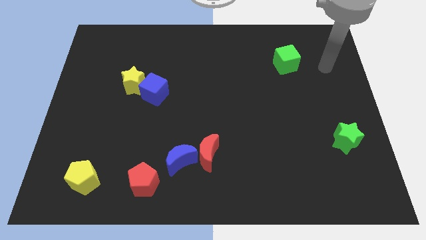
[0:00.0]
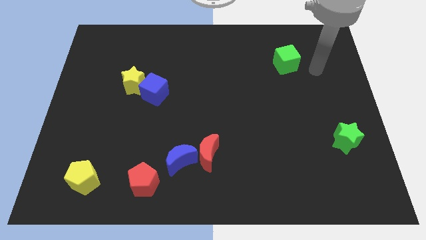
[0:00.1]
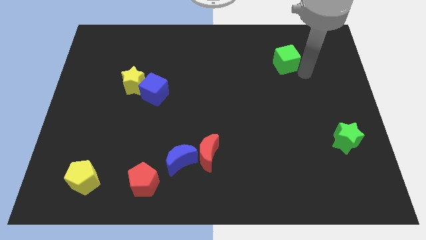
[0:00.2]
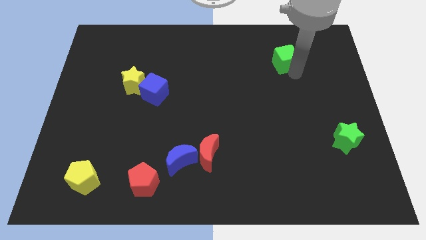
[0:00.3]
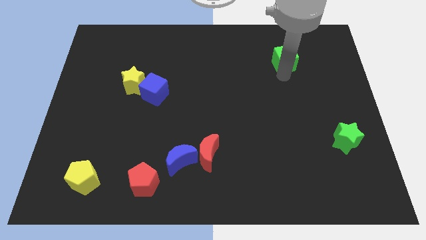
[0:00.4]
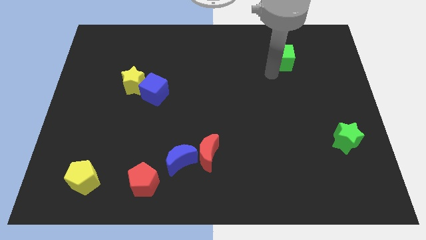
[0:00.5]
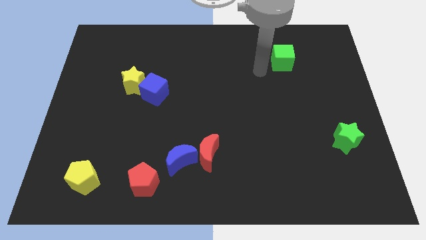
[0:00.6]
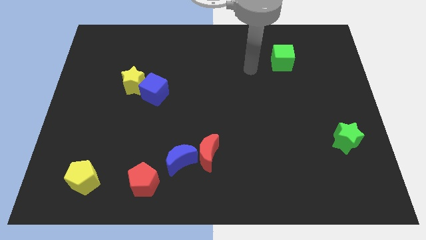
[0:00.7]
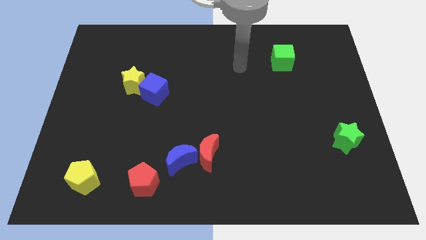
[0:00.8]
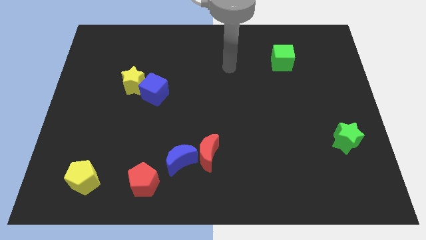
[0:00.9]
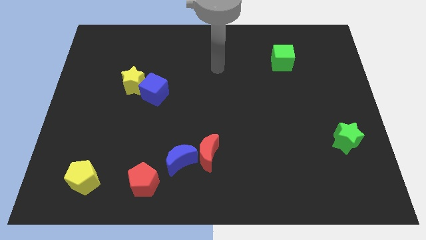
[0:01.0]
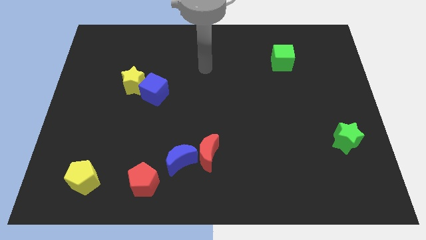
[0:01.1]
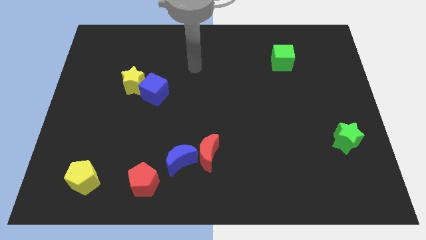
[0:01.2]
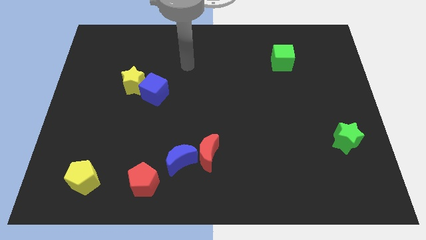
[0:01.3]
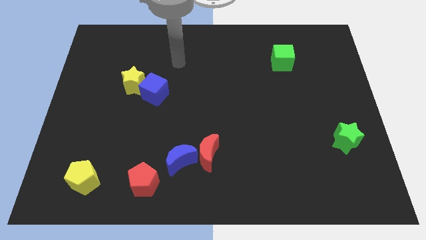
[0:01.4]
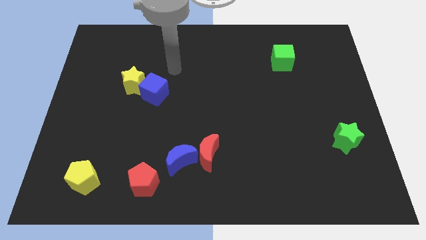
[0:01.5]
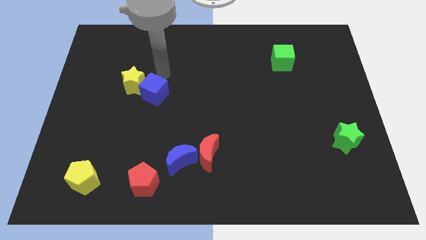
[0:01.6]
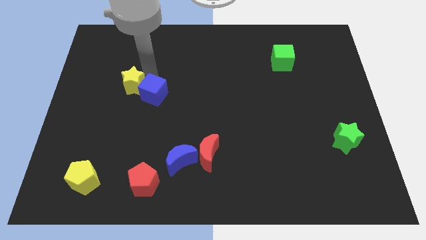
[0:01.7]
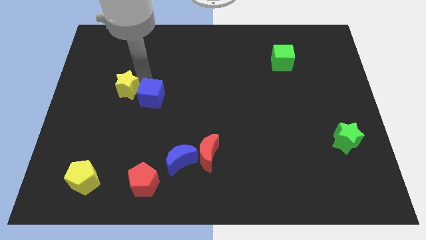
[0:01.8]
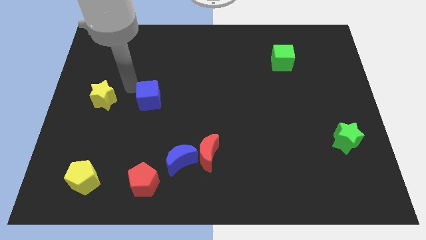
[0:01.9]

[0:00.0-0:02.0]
move the blue cube away from the yellow star

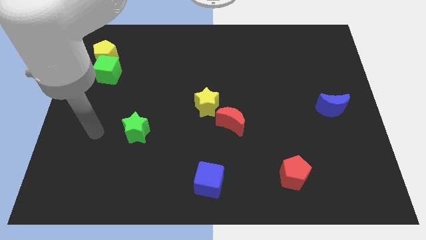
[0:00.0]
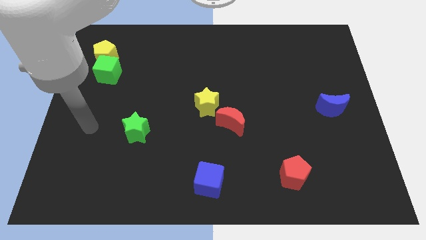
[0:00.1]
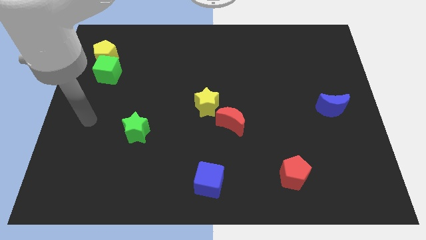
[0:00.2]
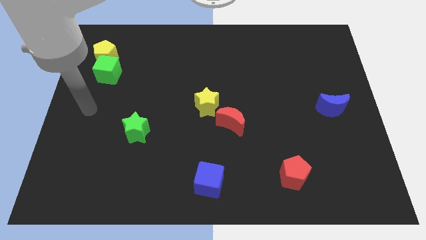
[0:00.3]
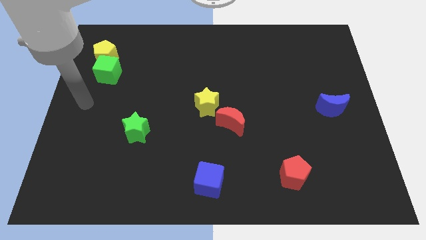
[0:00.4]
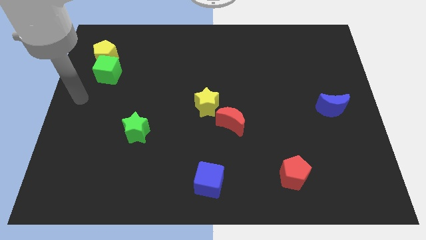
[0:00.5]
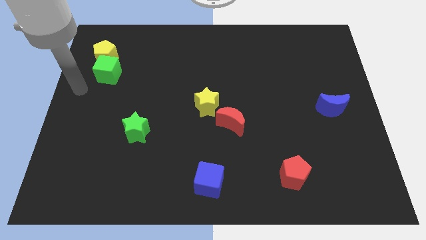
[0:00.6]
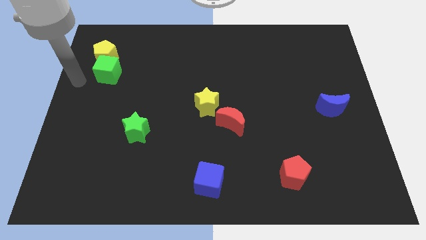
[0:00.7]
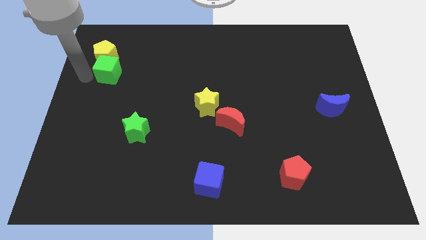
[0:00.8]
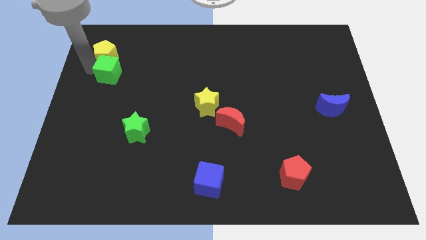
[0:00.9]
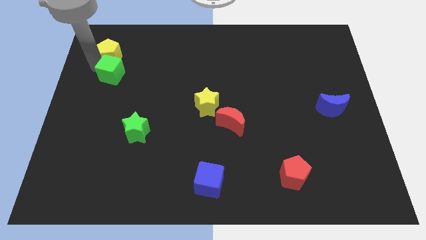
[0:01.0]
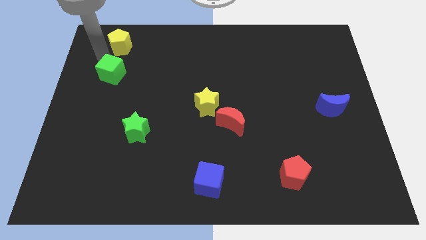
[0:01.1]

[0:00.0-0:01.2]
pull the green cube apart from the yellow pentagon

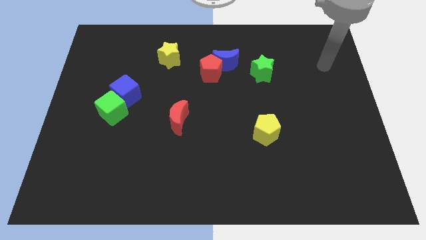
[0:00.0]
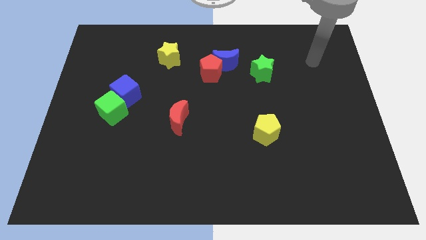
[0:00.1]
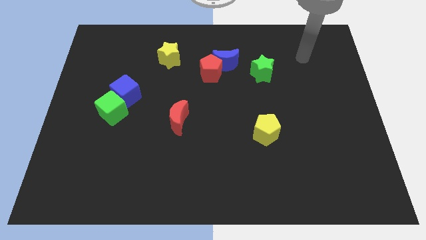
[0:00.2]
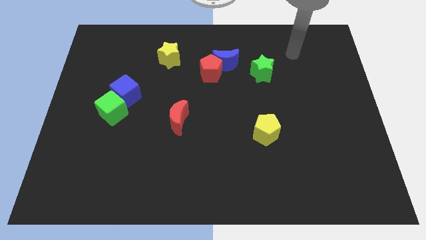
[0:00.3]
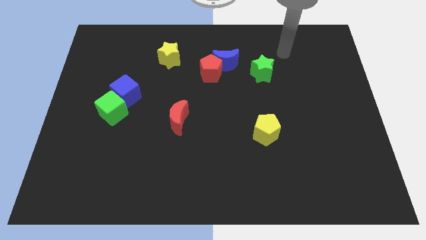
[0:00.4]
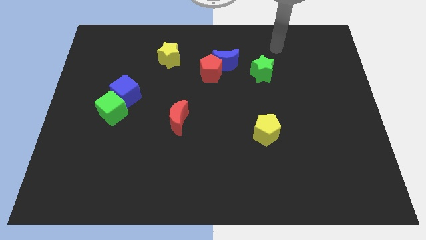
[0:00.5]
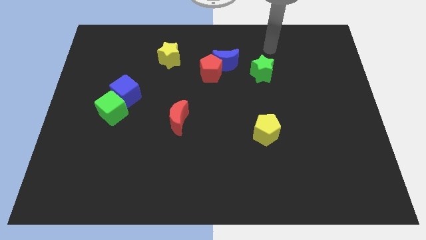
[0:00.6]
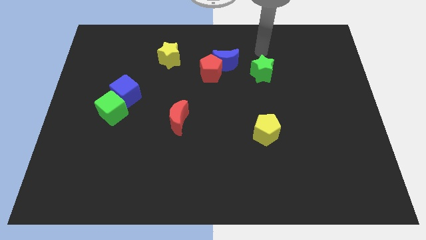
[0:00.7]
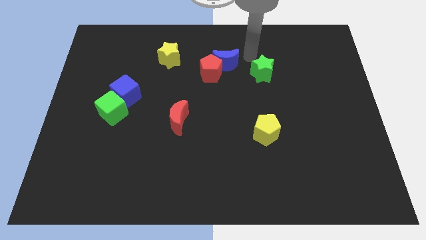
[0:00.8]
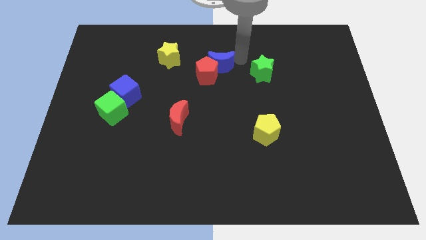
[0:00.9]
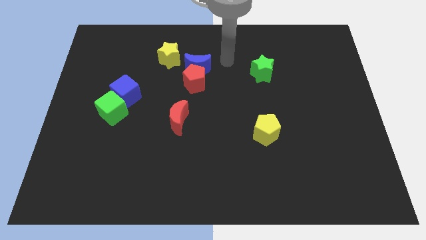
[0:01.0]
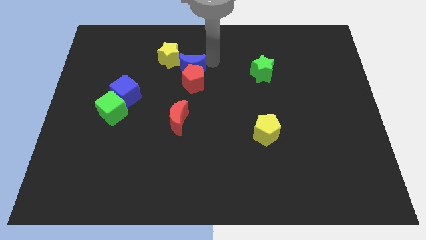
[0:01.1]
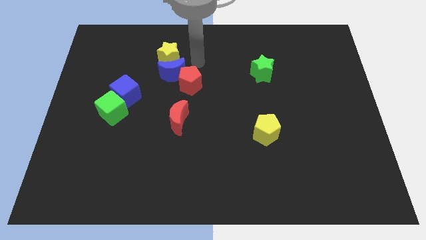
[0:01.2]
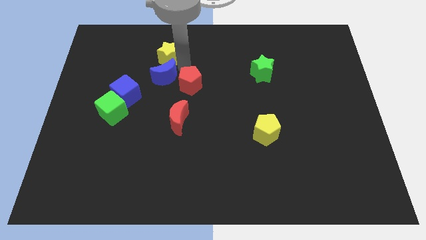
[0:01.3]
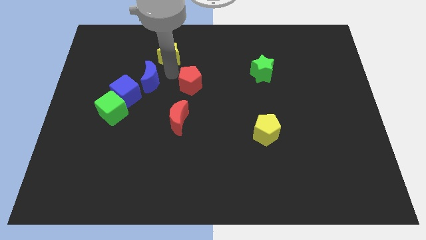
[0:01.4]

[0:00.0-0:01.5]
move the red pentagon away from the blue moon

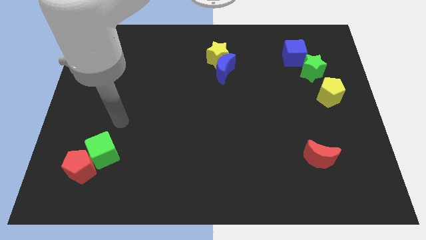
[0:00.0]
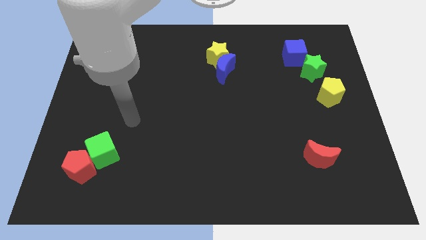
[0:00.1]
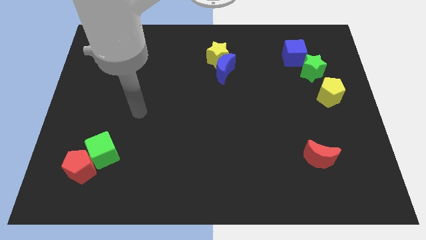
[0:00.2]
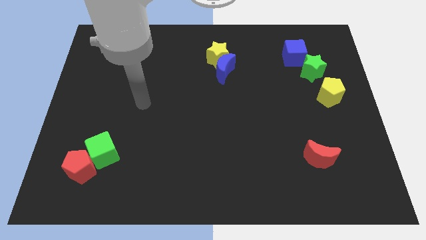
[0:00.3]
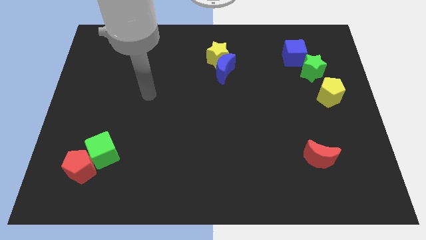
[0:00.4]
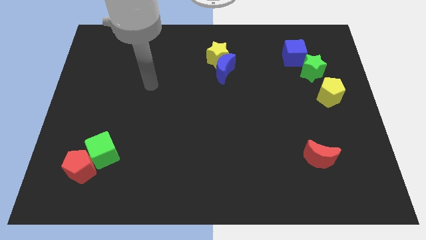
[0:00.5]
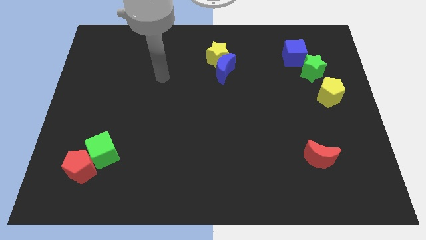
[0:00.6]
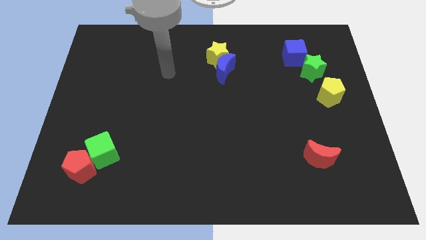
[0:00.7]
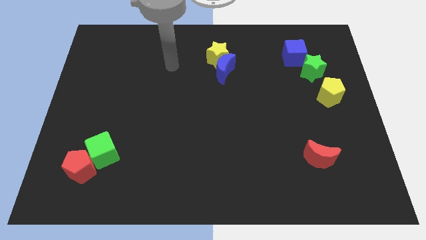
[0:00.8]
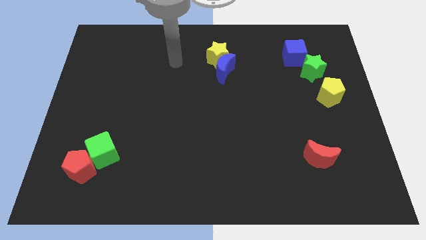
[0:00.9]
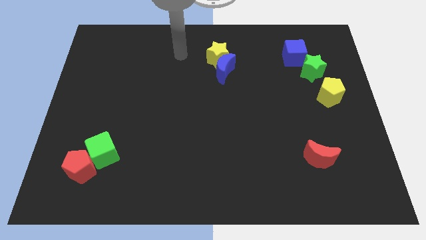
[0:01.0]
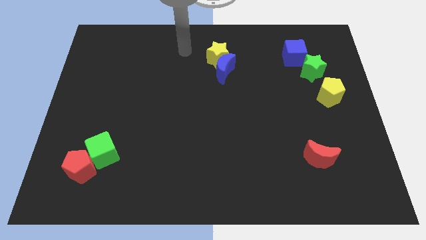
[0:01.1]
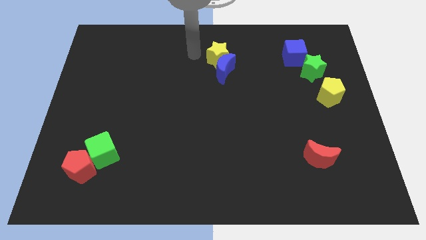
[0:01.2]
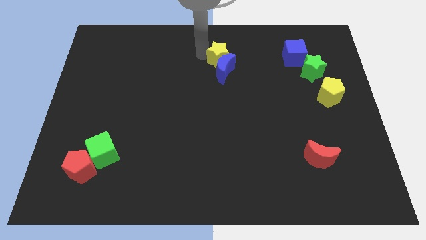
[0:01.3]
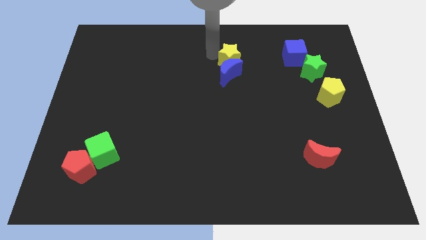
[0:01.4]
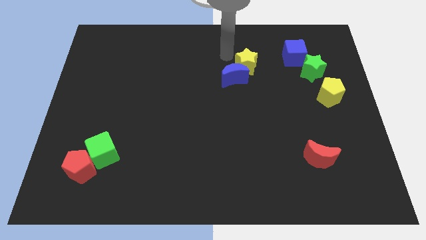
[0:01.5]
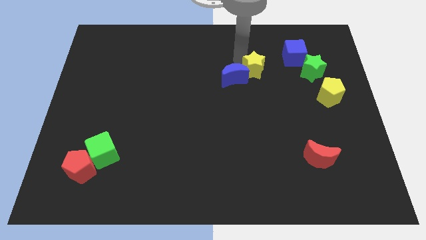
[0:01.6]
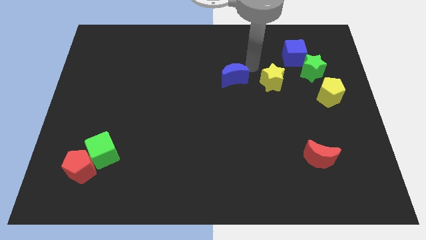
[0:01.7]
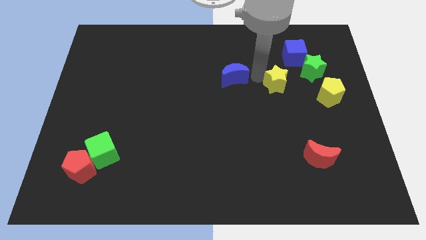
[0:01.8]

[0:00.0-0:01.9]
separate the blue moon from the yellow star

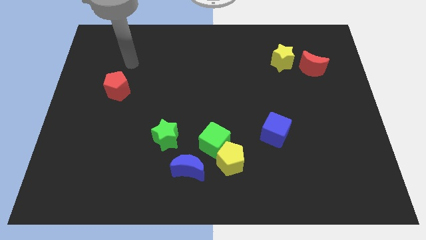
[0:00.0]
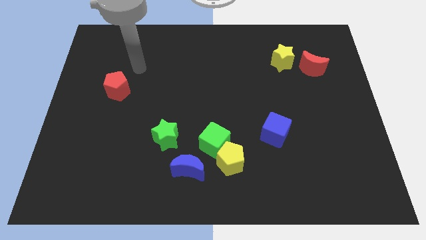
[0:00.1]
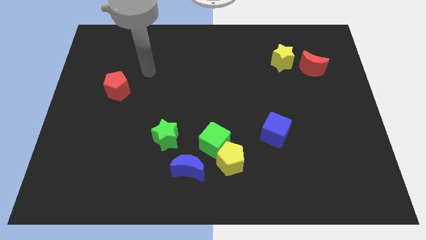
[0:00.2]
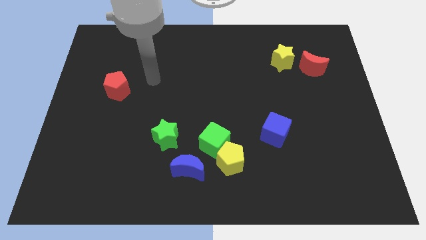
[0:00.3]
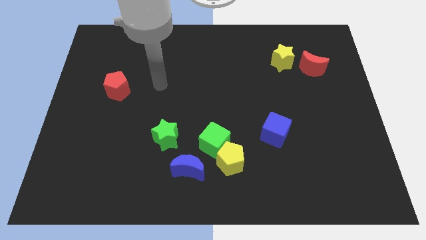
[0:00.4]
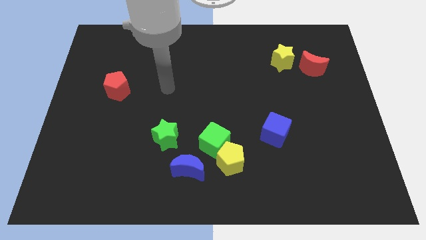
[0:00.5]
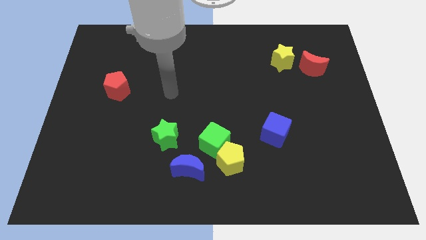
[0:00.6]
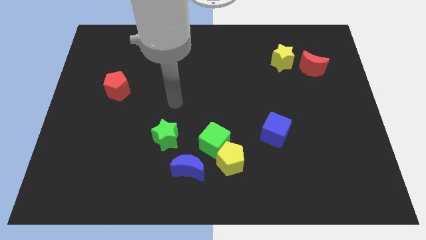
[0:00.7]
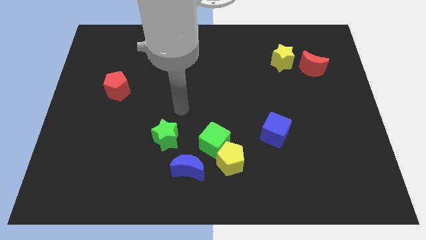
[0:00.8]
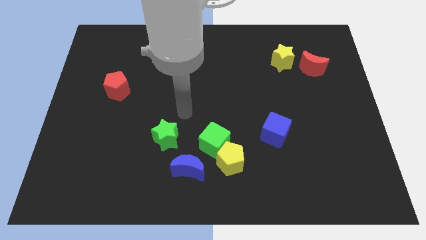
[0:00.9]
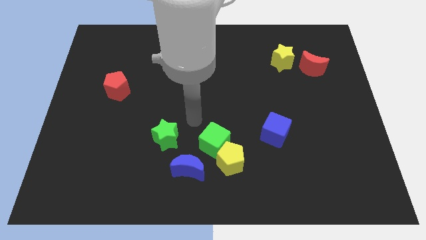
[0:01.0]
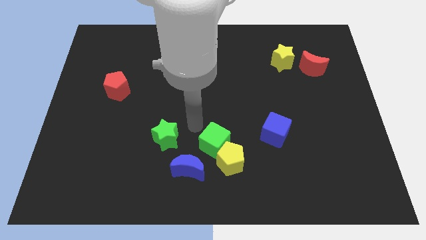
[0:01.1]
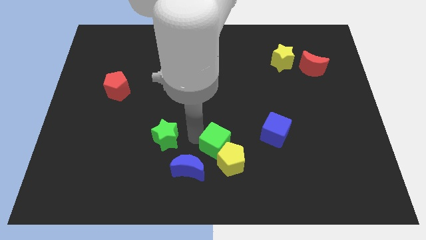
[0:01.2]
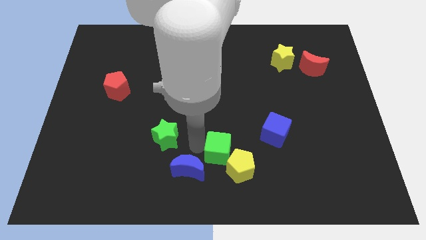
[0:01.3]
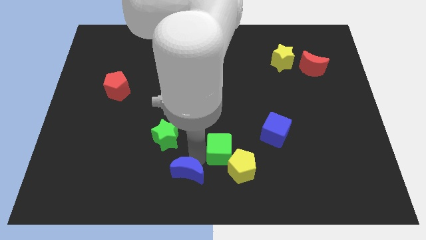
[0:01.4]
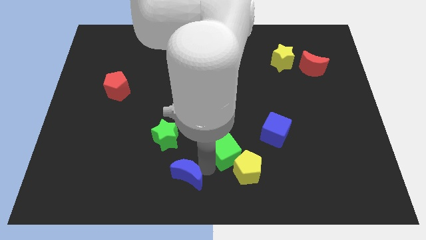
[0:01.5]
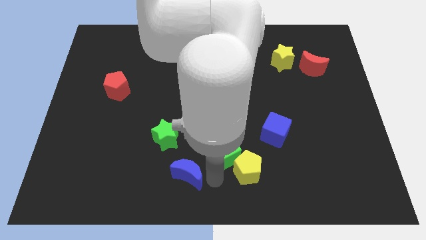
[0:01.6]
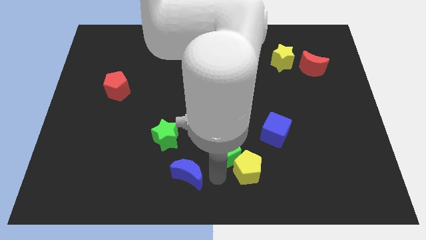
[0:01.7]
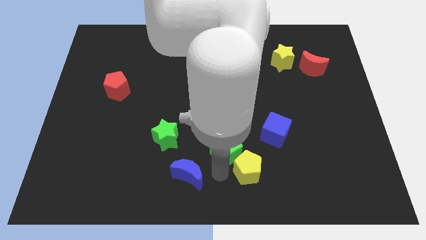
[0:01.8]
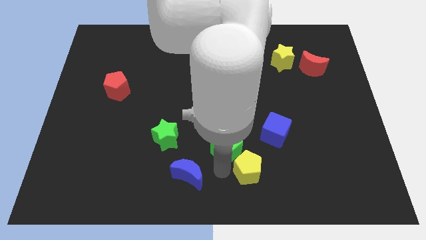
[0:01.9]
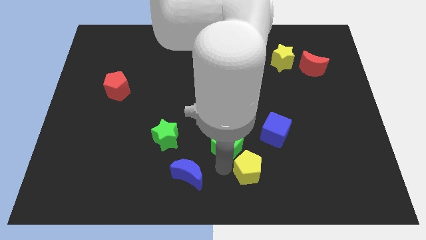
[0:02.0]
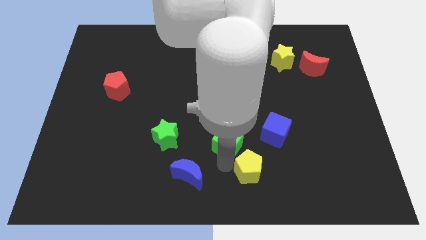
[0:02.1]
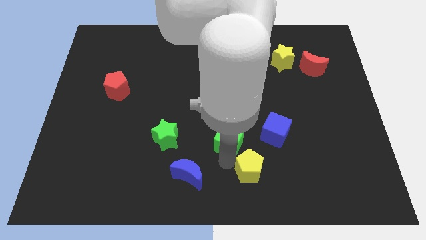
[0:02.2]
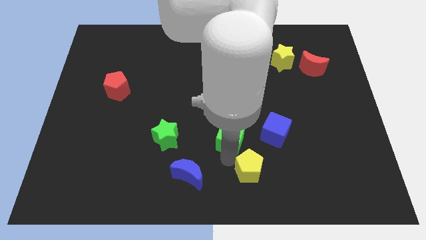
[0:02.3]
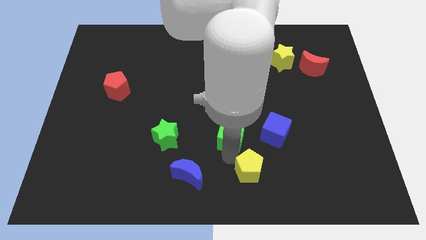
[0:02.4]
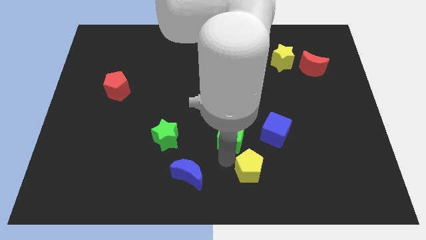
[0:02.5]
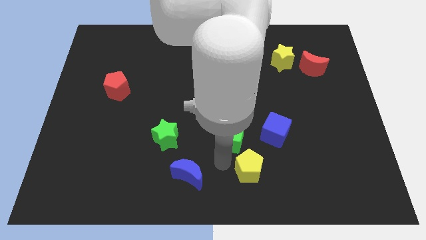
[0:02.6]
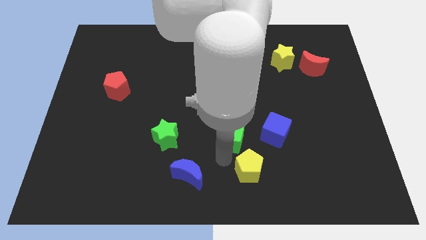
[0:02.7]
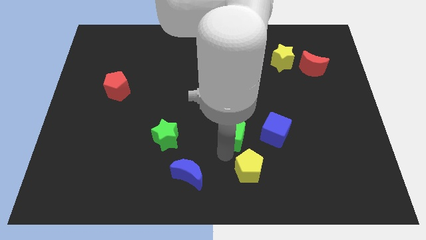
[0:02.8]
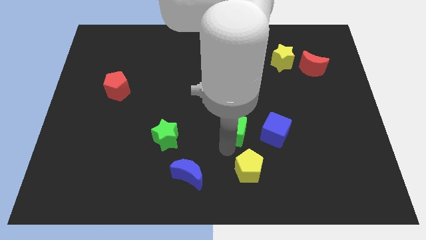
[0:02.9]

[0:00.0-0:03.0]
move the green cube away from the yellow pentagon and blue moon
